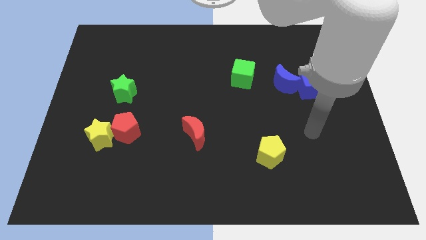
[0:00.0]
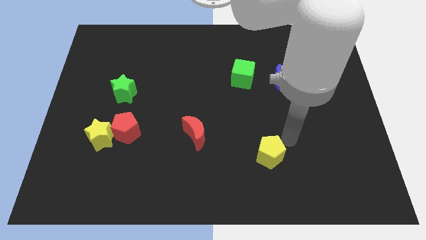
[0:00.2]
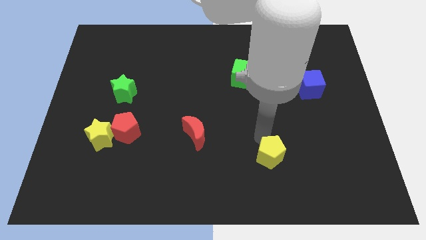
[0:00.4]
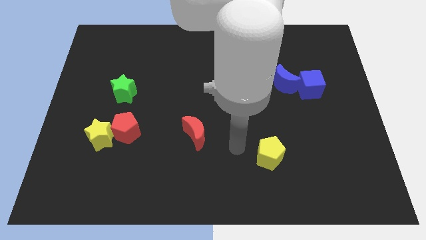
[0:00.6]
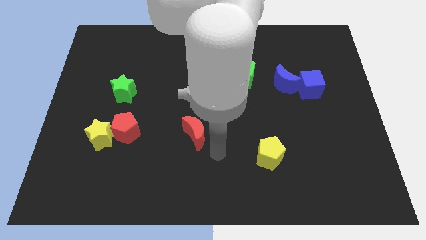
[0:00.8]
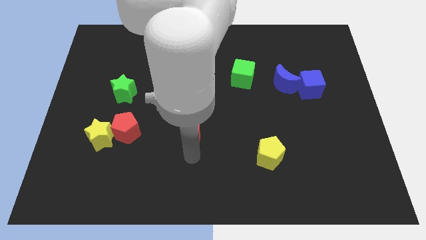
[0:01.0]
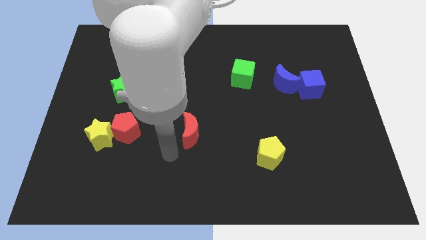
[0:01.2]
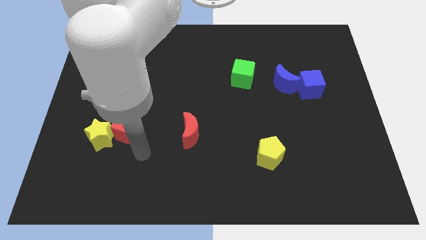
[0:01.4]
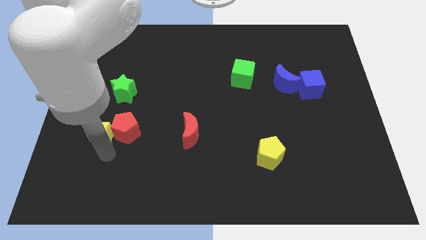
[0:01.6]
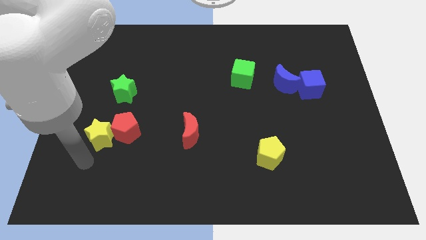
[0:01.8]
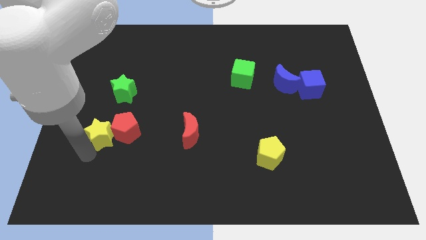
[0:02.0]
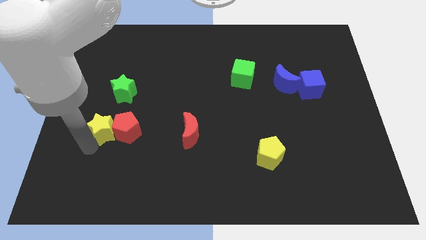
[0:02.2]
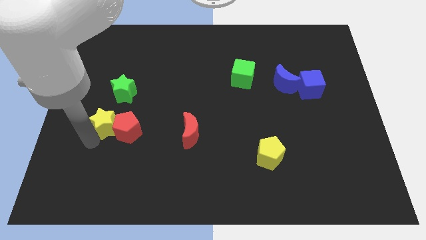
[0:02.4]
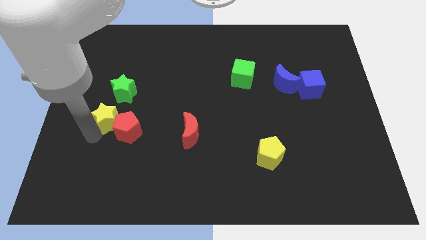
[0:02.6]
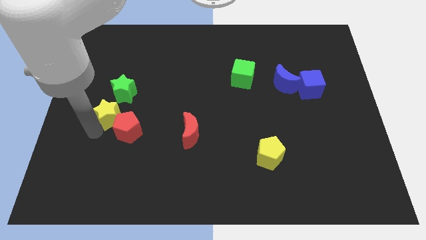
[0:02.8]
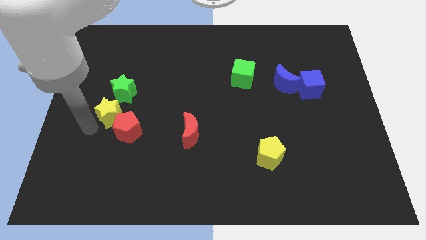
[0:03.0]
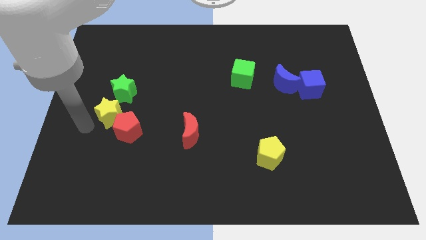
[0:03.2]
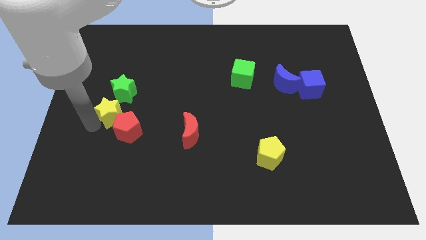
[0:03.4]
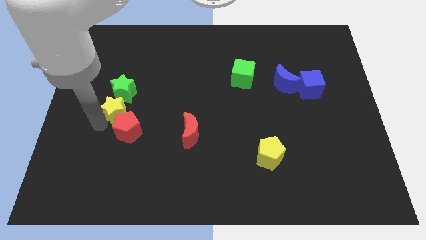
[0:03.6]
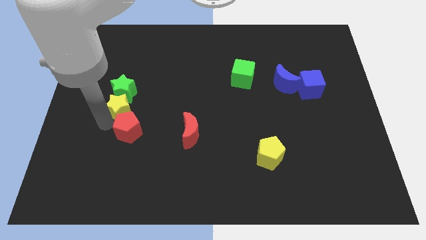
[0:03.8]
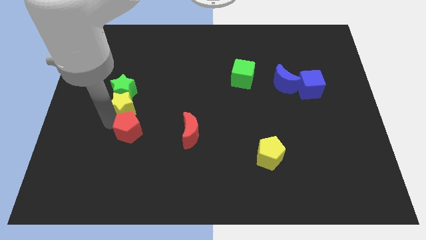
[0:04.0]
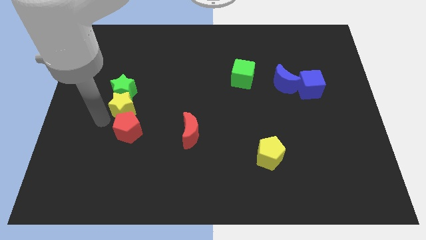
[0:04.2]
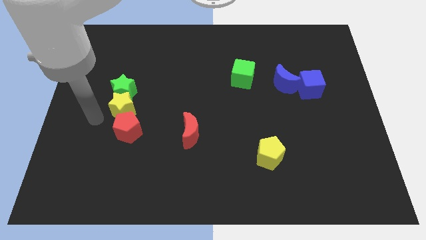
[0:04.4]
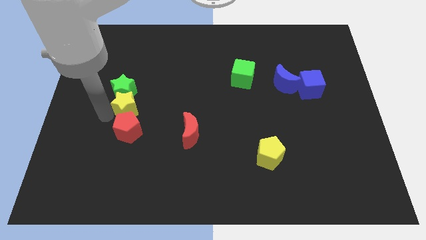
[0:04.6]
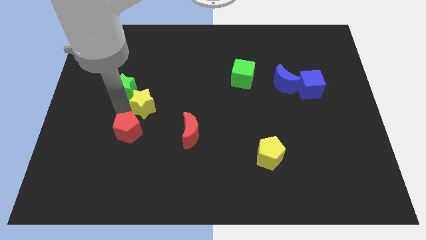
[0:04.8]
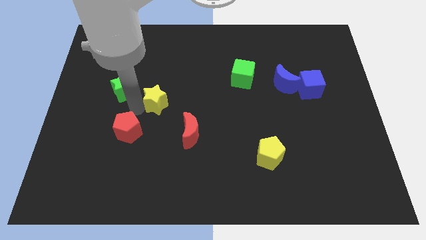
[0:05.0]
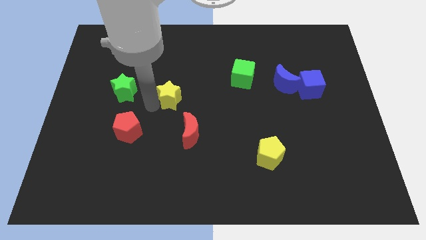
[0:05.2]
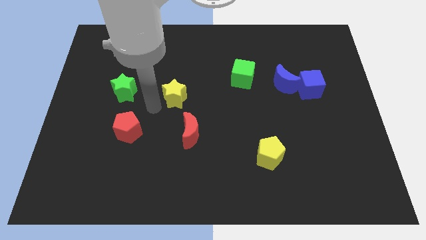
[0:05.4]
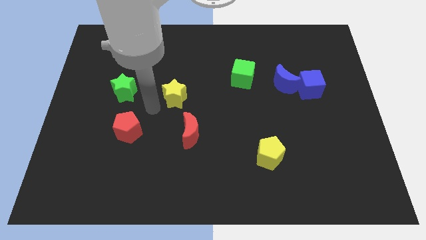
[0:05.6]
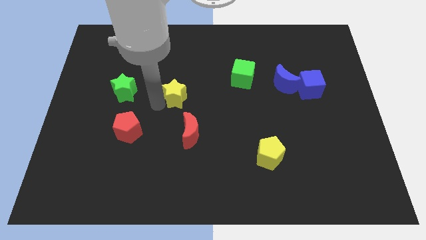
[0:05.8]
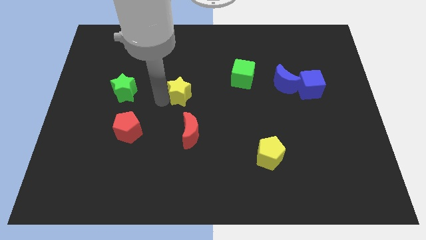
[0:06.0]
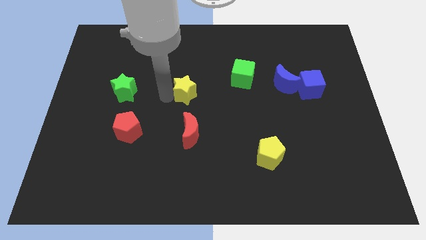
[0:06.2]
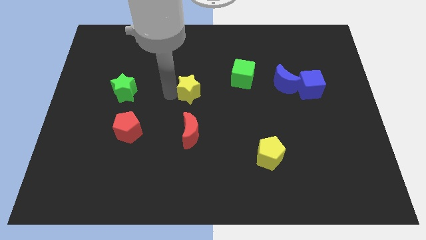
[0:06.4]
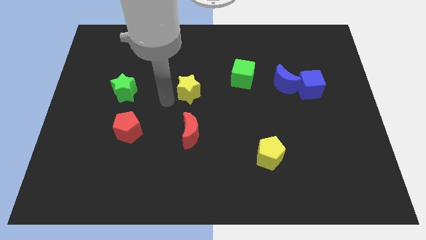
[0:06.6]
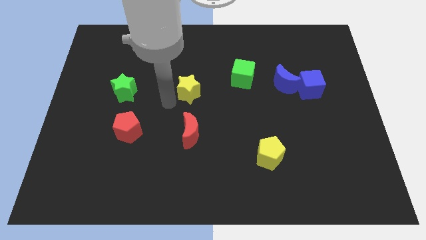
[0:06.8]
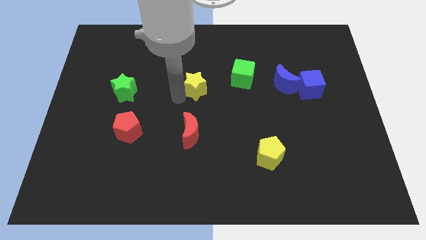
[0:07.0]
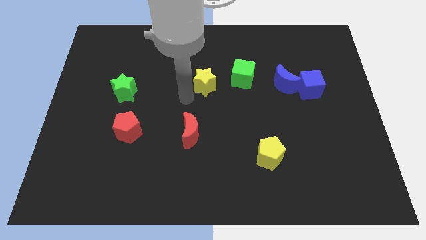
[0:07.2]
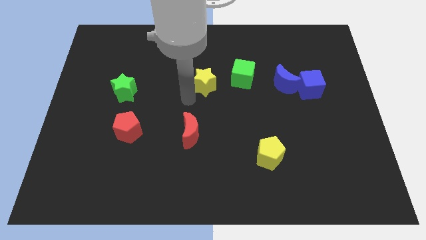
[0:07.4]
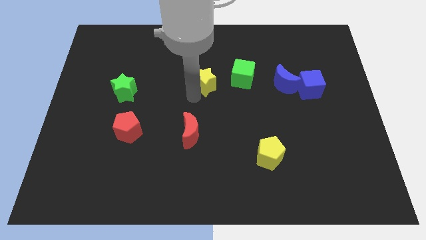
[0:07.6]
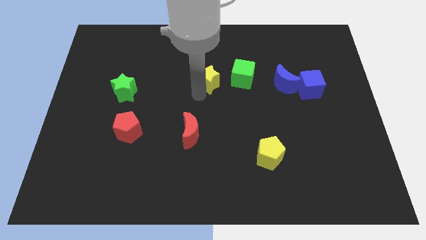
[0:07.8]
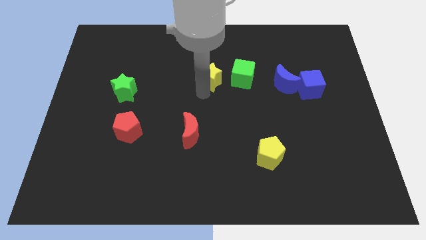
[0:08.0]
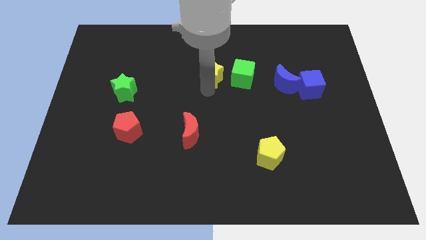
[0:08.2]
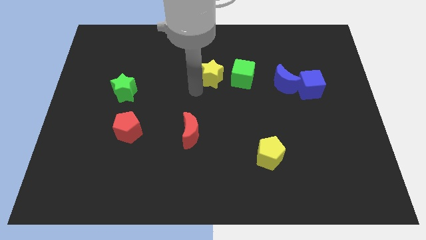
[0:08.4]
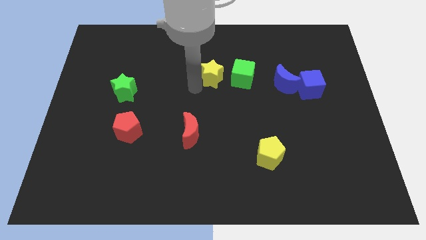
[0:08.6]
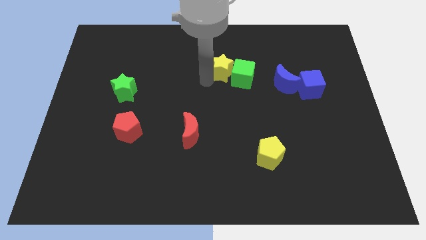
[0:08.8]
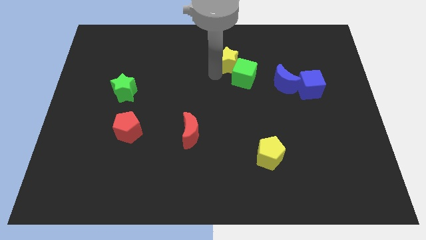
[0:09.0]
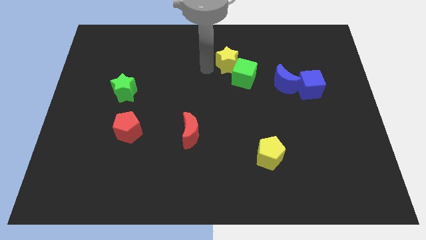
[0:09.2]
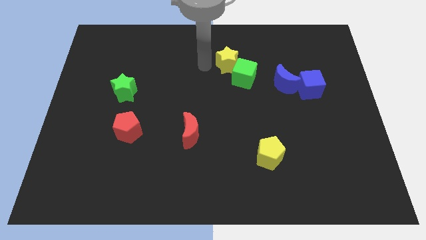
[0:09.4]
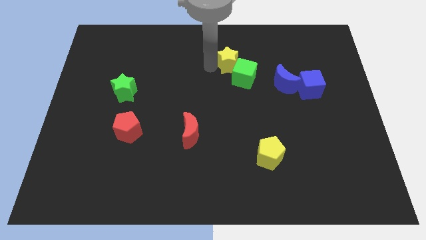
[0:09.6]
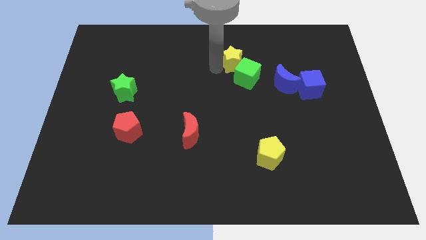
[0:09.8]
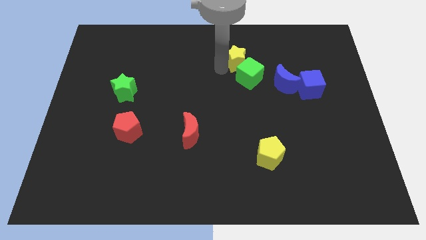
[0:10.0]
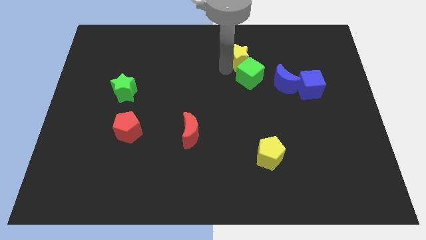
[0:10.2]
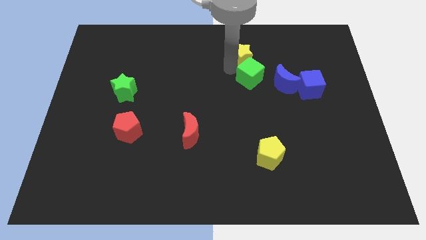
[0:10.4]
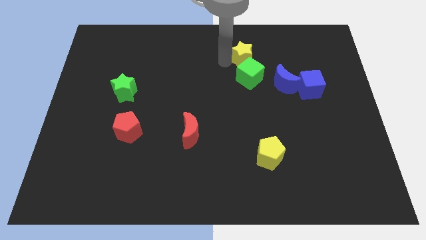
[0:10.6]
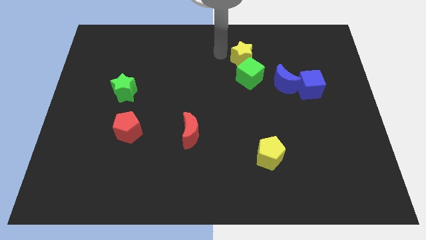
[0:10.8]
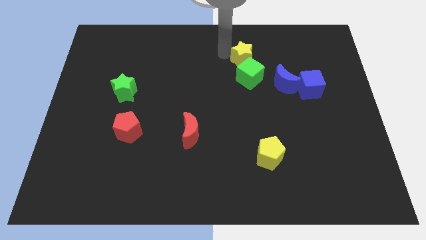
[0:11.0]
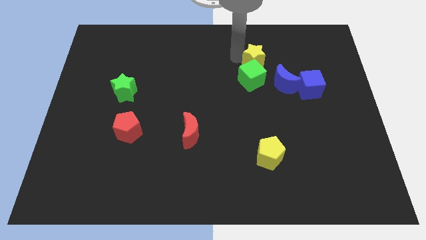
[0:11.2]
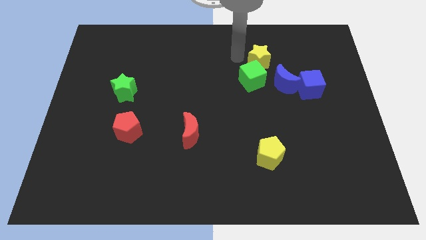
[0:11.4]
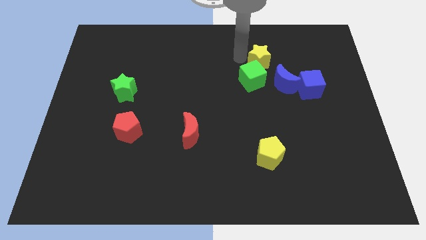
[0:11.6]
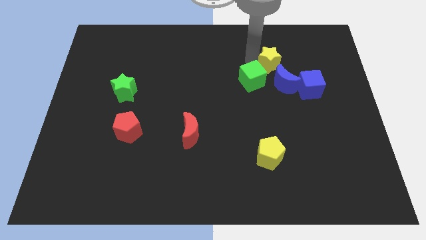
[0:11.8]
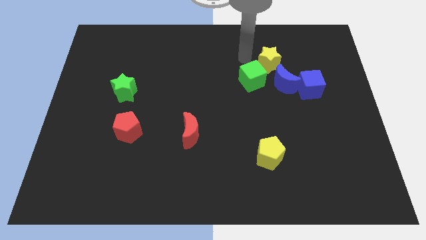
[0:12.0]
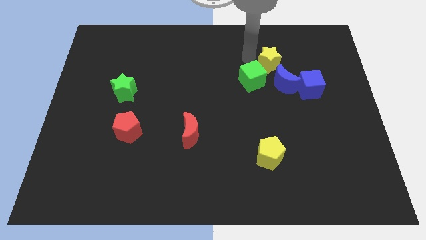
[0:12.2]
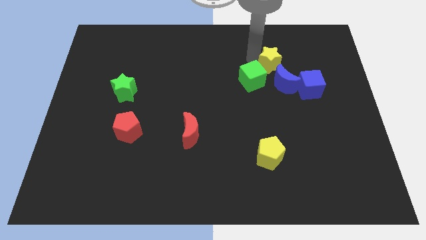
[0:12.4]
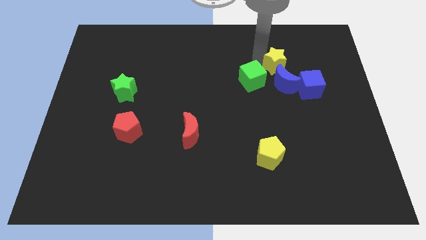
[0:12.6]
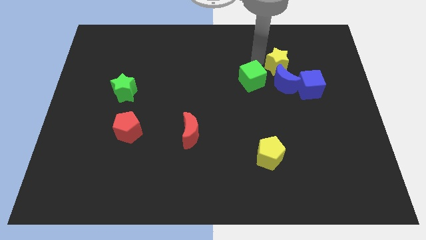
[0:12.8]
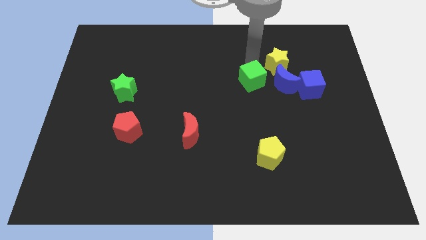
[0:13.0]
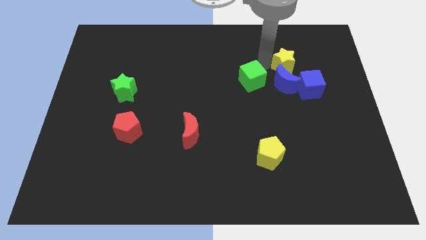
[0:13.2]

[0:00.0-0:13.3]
move the yellow star to the top right side of the blue moon

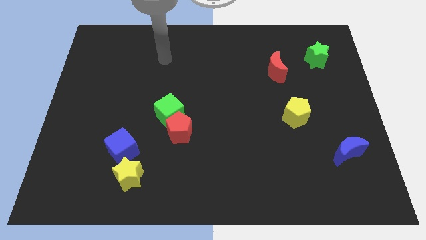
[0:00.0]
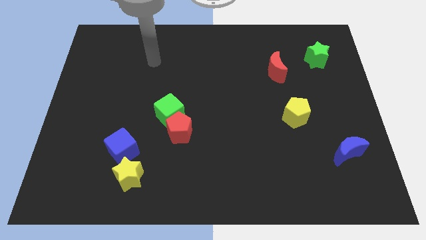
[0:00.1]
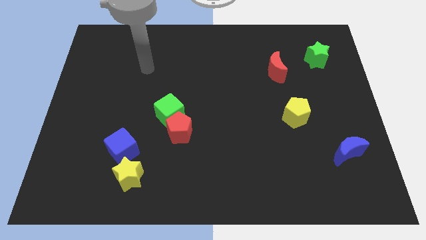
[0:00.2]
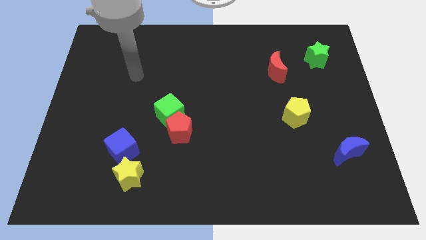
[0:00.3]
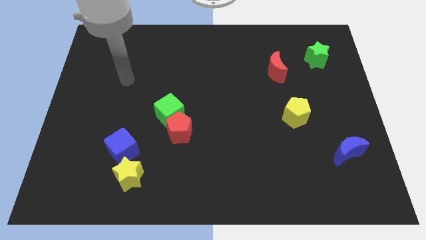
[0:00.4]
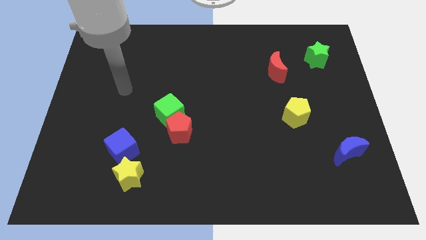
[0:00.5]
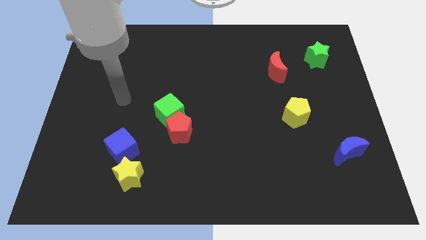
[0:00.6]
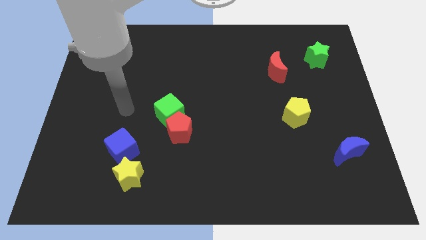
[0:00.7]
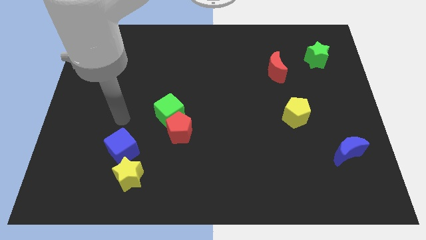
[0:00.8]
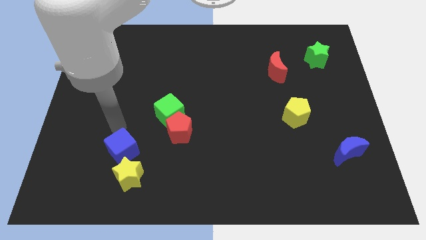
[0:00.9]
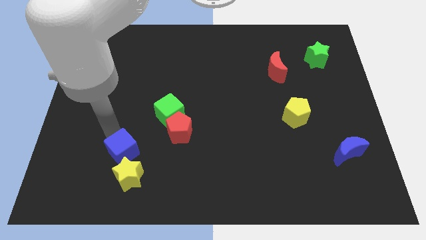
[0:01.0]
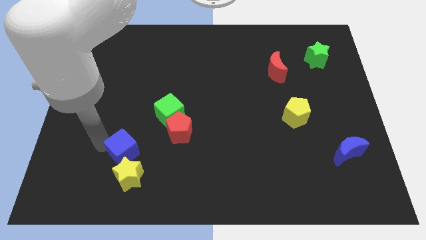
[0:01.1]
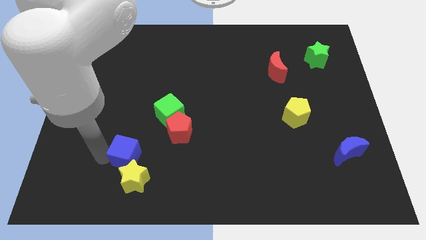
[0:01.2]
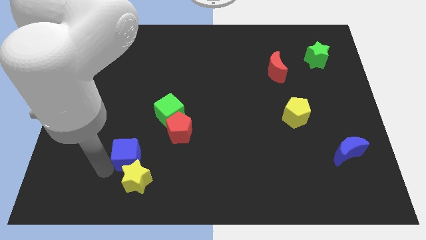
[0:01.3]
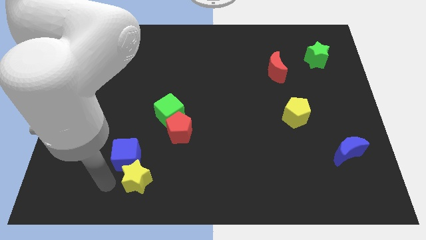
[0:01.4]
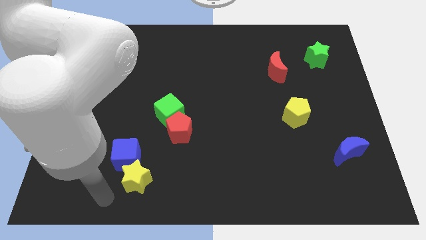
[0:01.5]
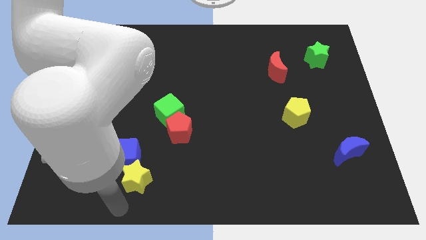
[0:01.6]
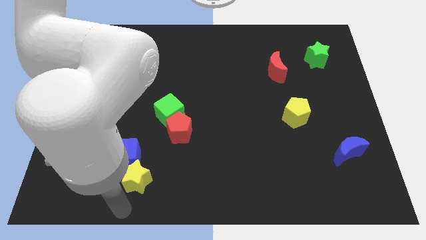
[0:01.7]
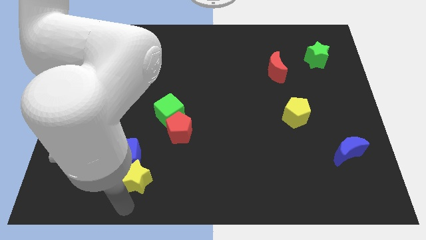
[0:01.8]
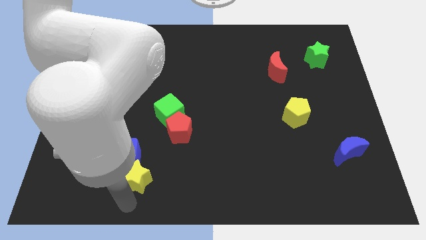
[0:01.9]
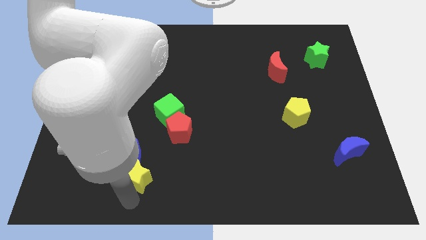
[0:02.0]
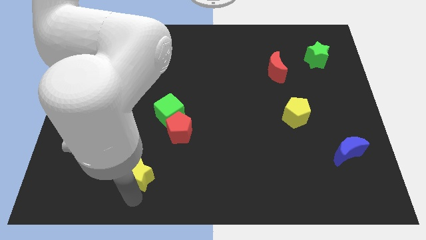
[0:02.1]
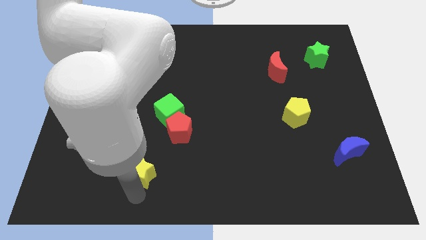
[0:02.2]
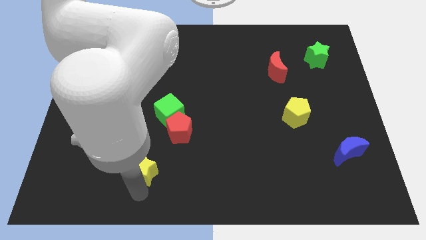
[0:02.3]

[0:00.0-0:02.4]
push the yellow star to the bottom left side of the red pentagon
